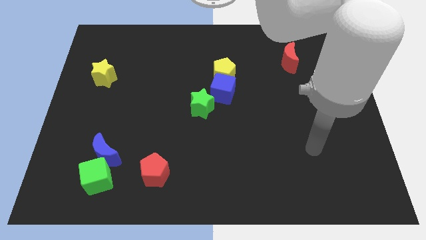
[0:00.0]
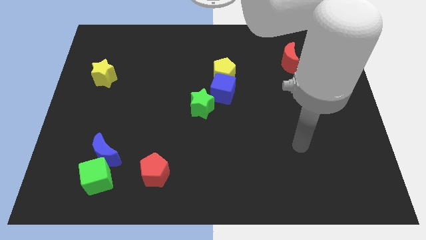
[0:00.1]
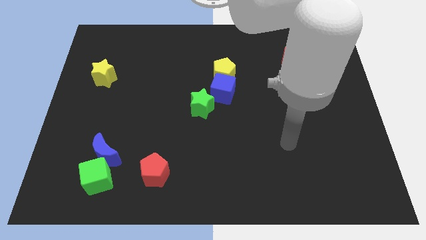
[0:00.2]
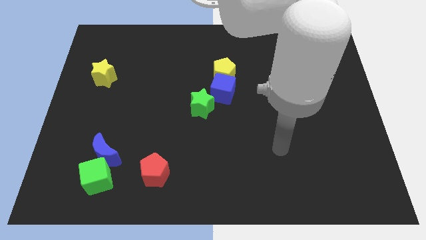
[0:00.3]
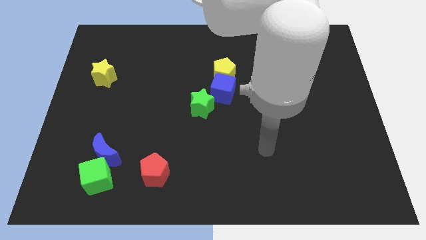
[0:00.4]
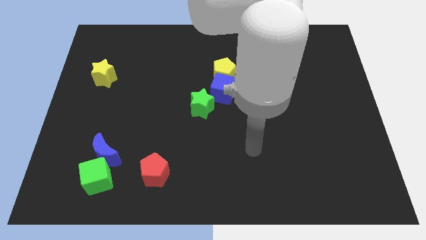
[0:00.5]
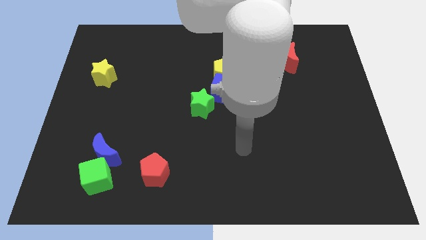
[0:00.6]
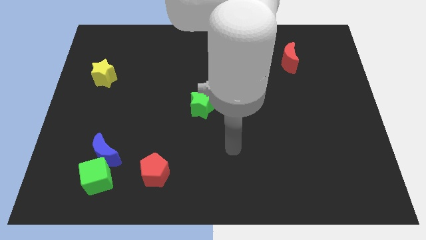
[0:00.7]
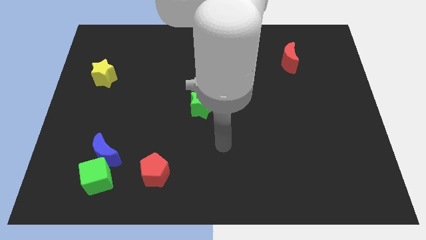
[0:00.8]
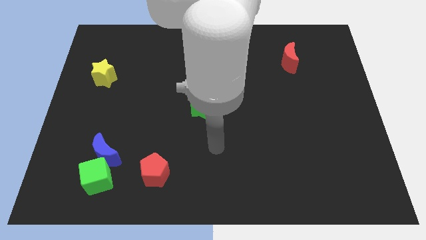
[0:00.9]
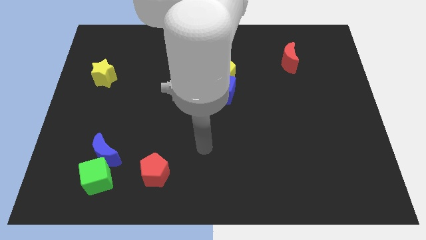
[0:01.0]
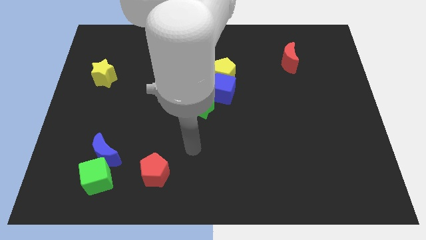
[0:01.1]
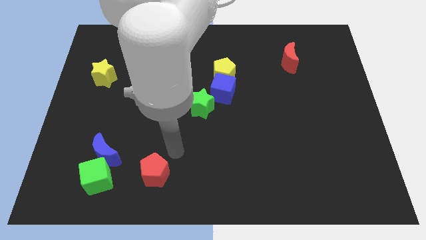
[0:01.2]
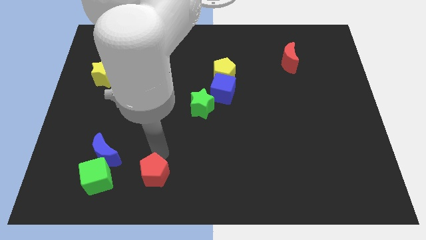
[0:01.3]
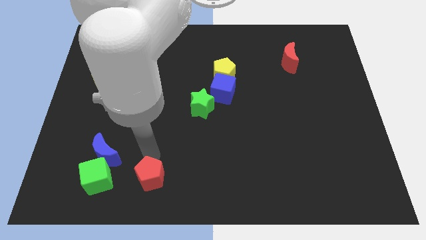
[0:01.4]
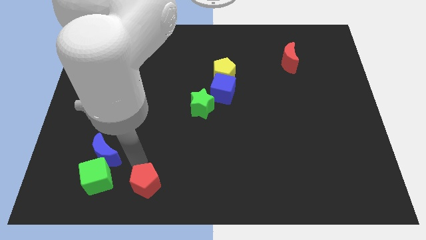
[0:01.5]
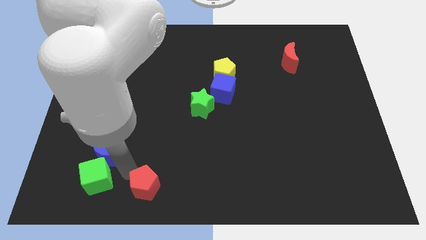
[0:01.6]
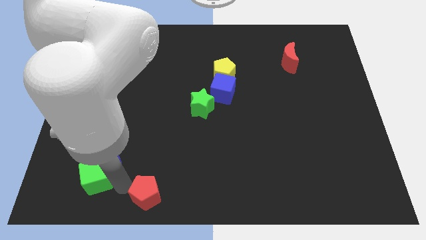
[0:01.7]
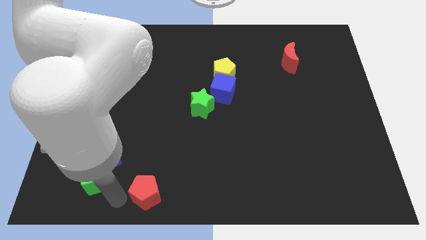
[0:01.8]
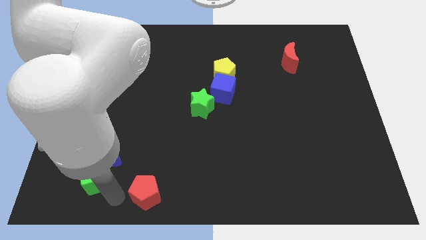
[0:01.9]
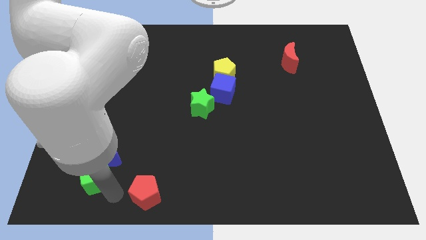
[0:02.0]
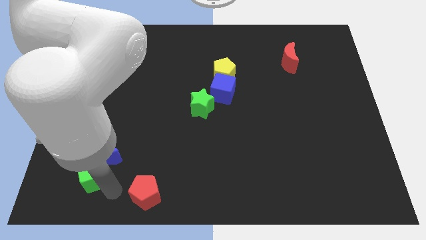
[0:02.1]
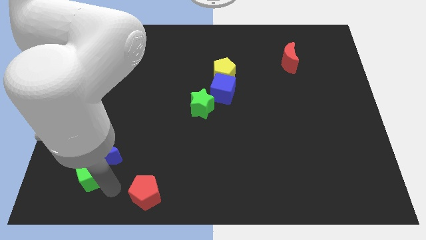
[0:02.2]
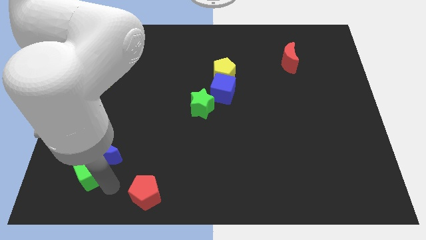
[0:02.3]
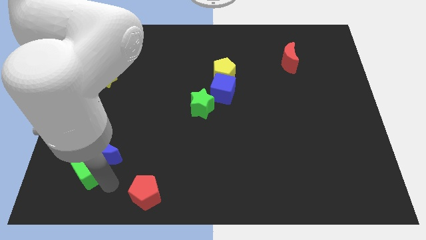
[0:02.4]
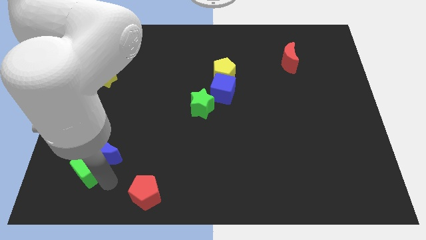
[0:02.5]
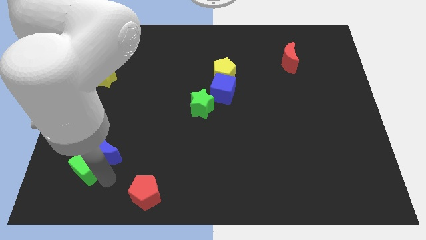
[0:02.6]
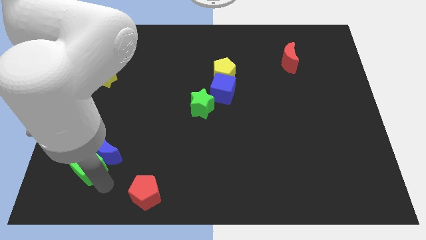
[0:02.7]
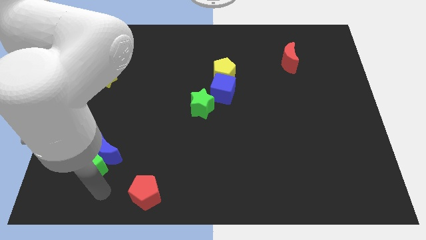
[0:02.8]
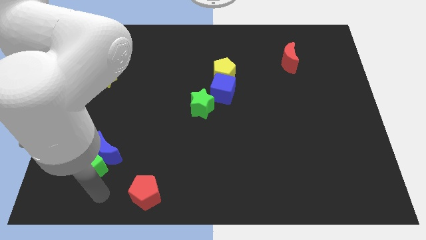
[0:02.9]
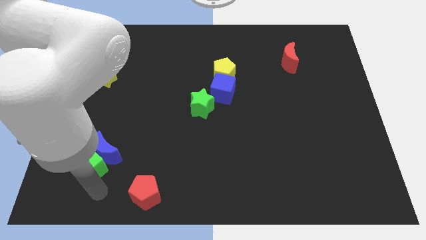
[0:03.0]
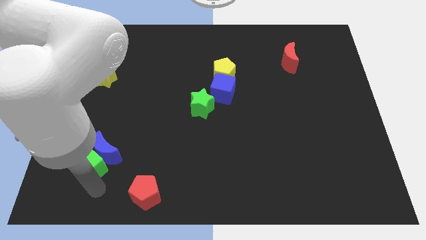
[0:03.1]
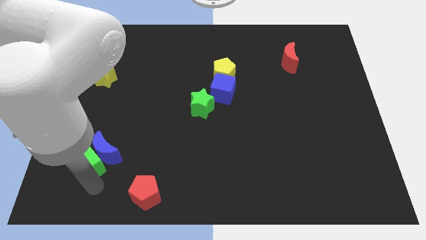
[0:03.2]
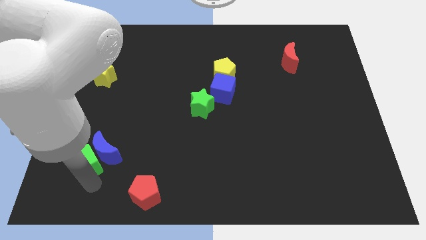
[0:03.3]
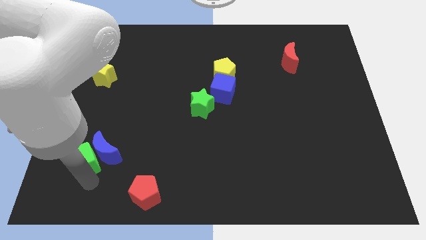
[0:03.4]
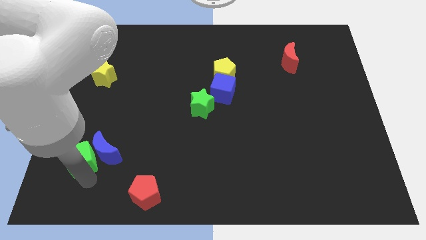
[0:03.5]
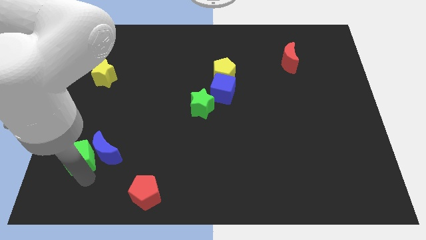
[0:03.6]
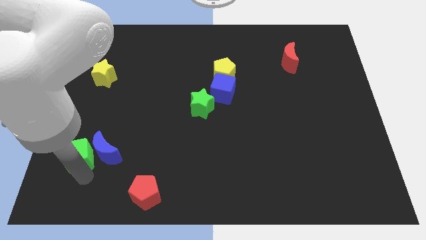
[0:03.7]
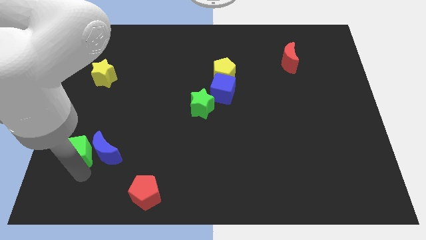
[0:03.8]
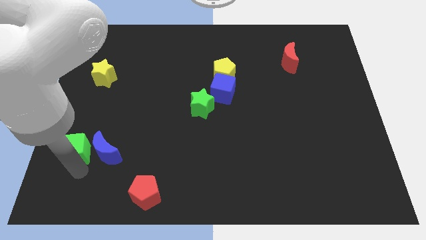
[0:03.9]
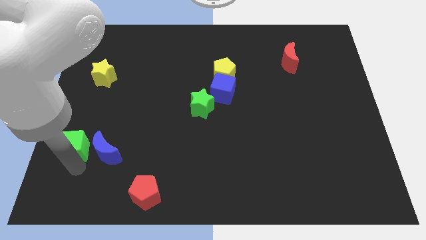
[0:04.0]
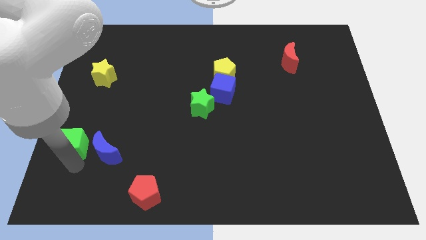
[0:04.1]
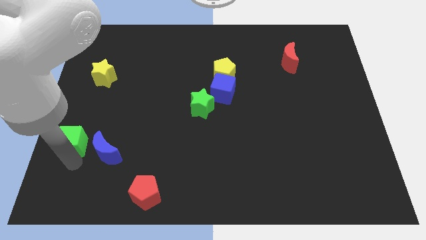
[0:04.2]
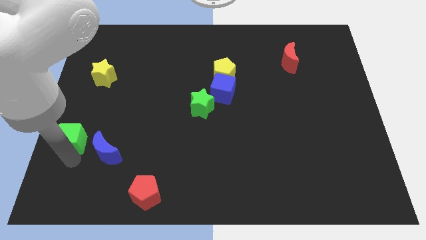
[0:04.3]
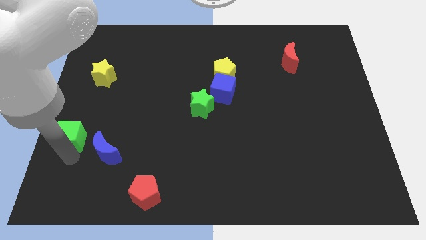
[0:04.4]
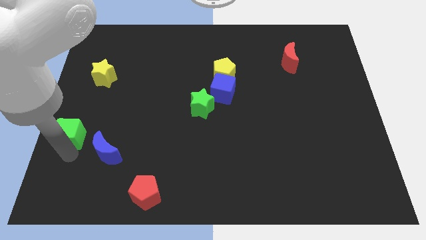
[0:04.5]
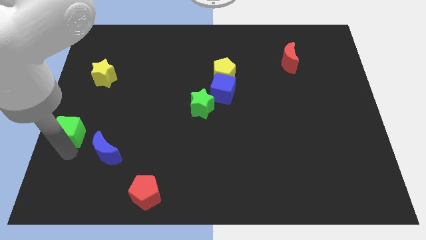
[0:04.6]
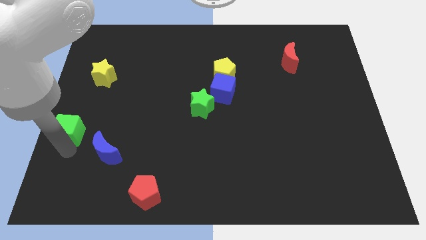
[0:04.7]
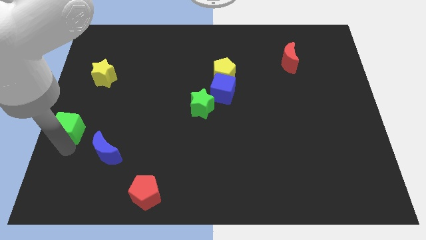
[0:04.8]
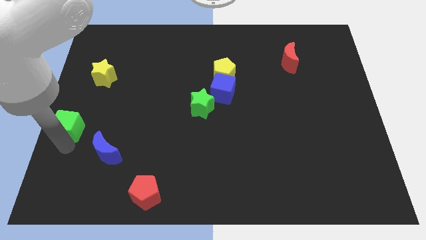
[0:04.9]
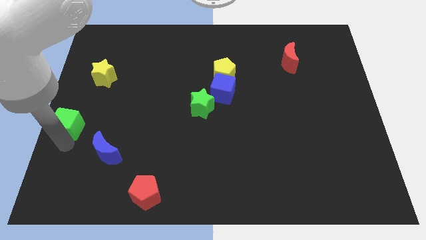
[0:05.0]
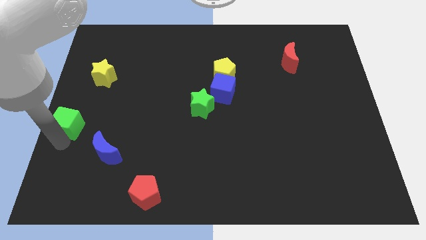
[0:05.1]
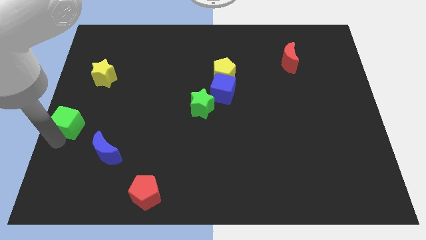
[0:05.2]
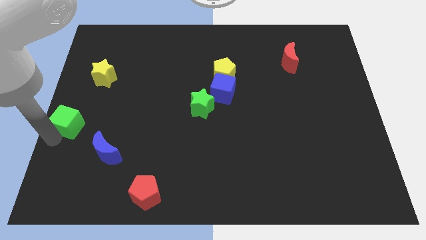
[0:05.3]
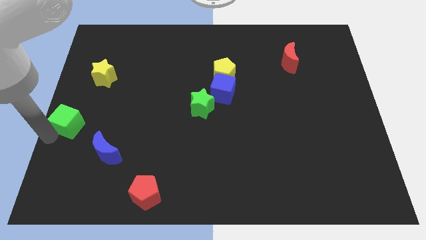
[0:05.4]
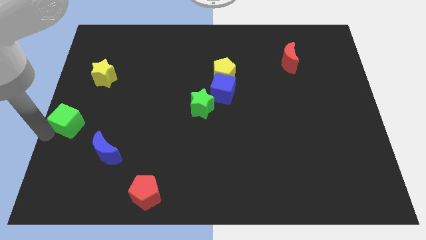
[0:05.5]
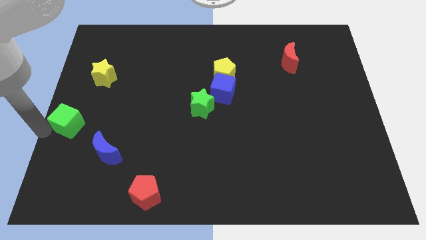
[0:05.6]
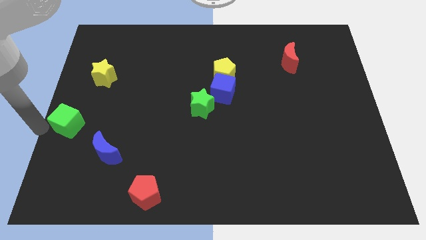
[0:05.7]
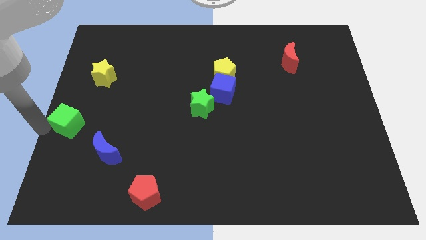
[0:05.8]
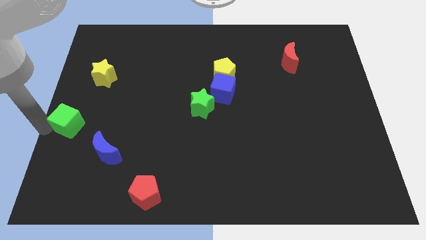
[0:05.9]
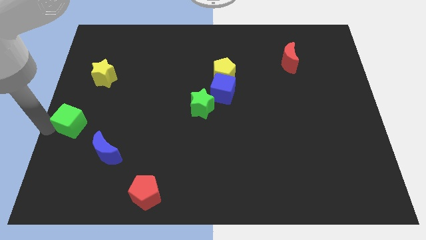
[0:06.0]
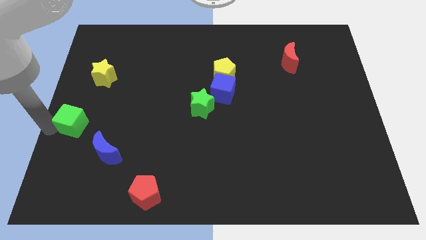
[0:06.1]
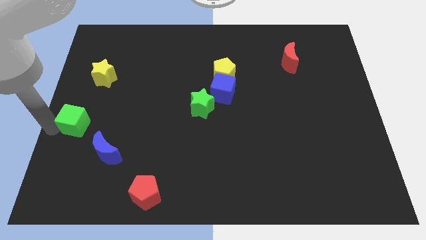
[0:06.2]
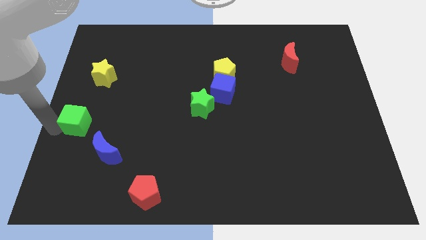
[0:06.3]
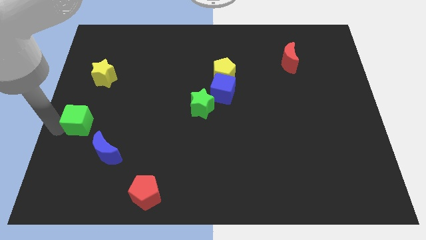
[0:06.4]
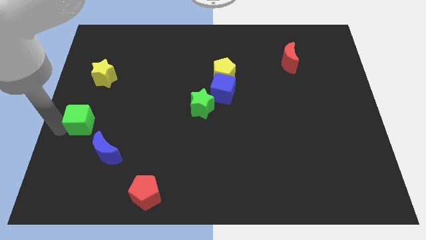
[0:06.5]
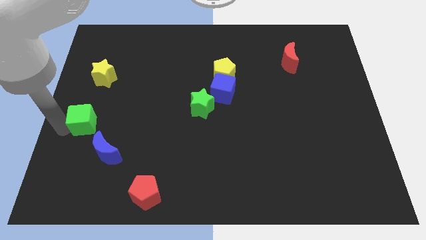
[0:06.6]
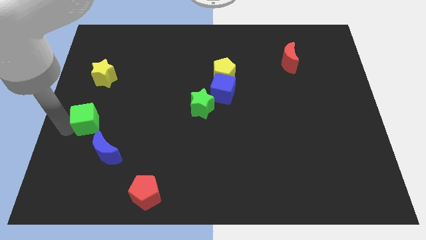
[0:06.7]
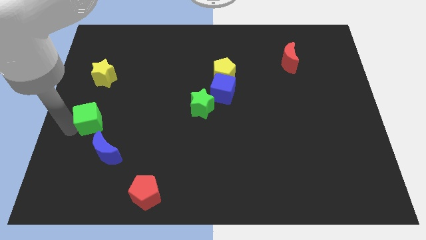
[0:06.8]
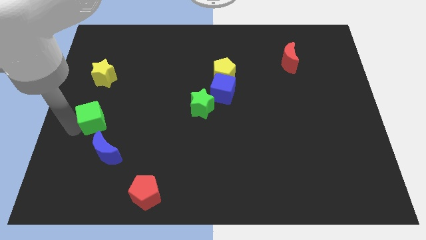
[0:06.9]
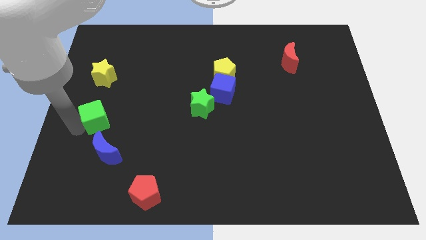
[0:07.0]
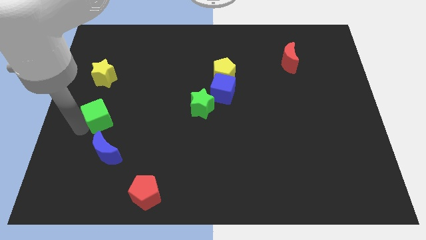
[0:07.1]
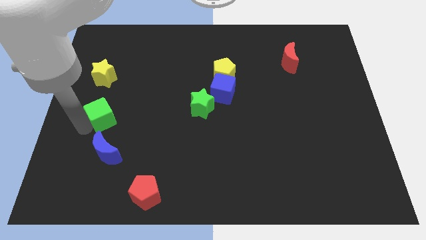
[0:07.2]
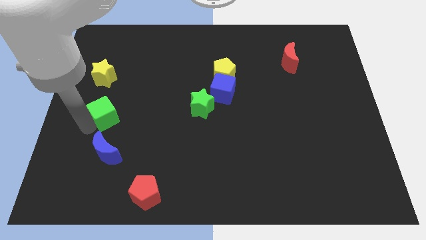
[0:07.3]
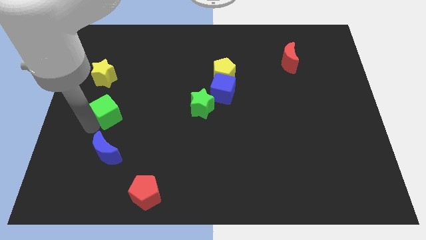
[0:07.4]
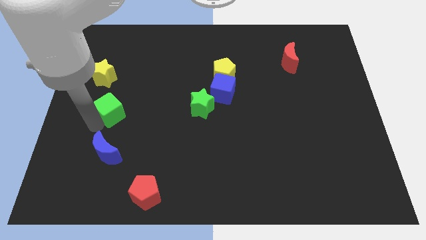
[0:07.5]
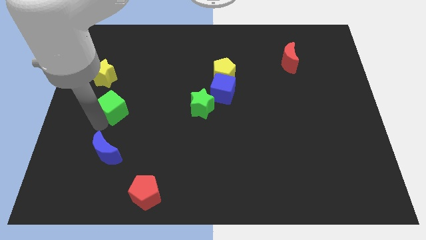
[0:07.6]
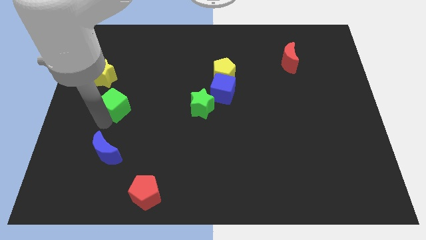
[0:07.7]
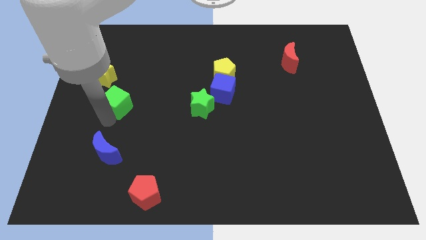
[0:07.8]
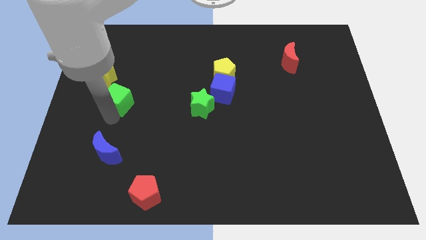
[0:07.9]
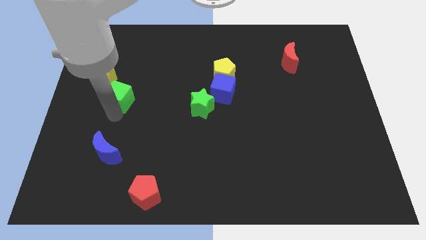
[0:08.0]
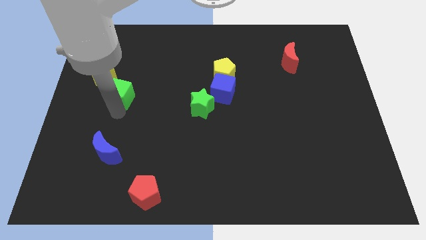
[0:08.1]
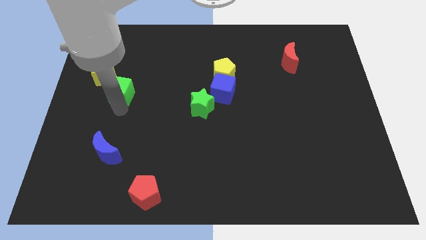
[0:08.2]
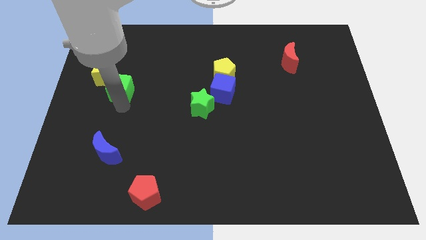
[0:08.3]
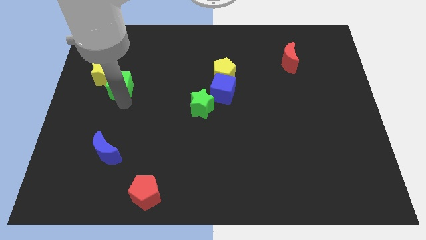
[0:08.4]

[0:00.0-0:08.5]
move the green cube towards the yellow star
